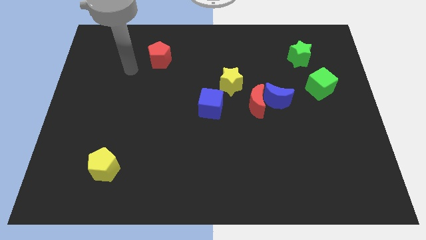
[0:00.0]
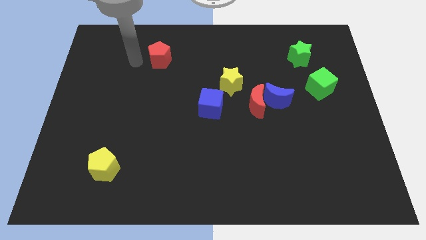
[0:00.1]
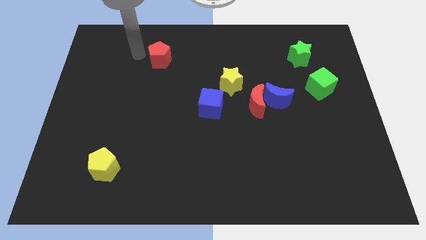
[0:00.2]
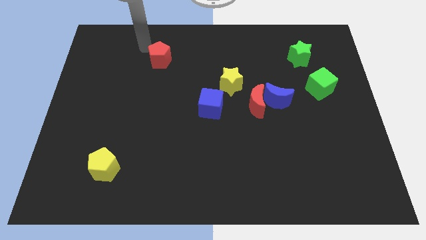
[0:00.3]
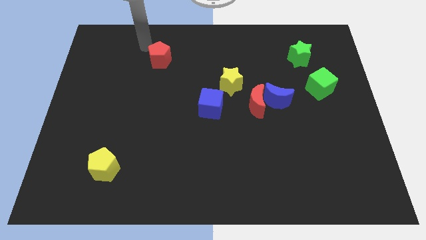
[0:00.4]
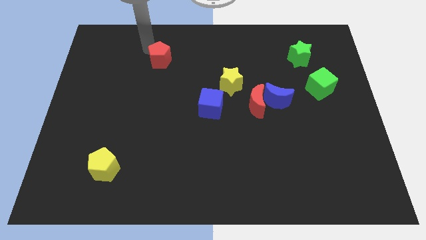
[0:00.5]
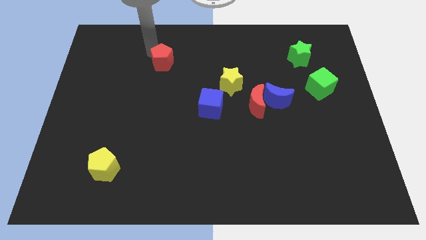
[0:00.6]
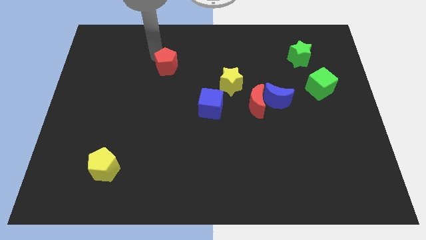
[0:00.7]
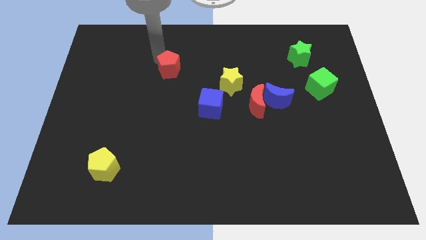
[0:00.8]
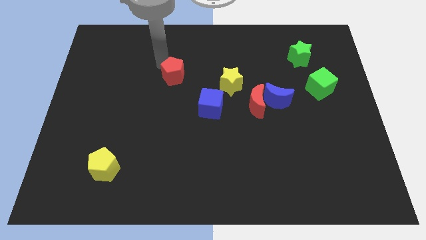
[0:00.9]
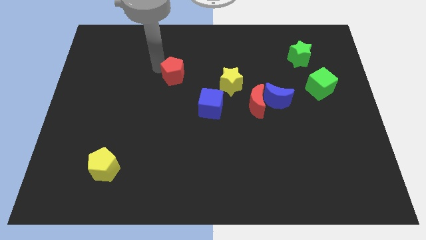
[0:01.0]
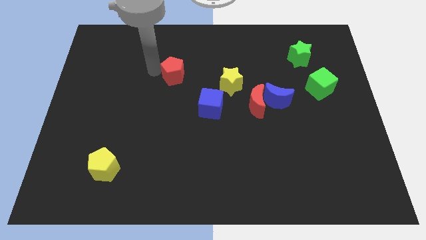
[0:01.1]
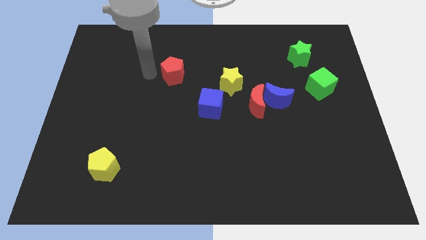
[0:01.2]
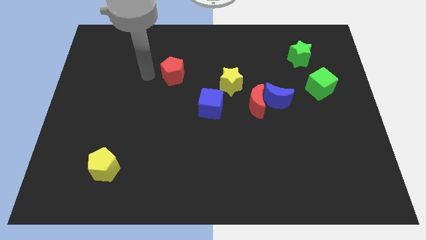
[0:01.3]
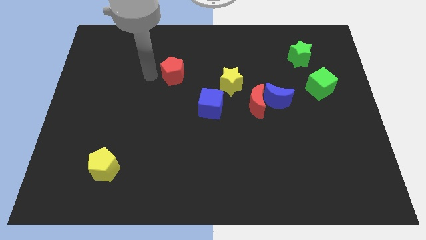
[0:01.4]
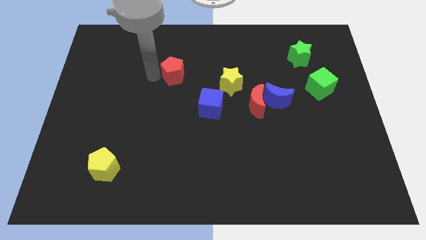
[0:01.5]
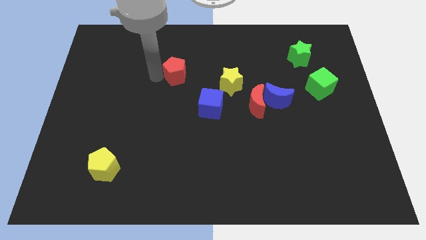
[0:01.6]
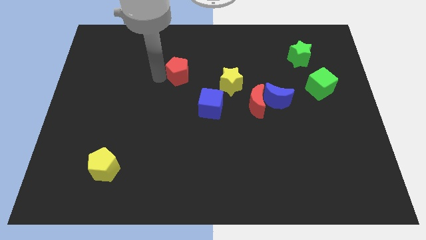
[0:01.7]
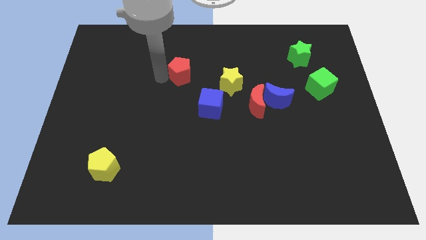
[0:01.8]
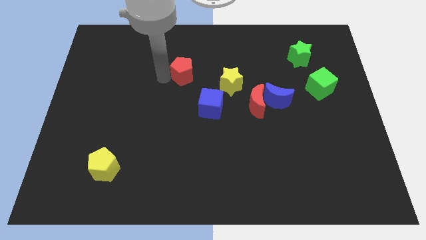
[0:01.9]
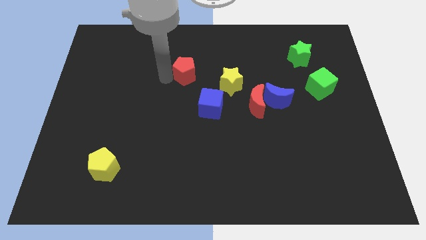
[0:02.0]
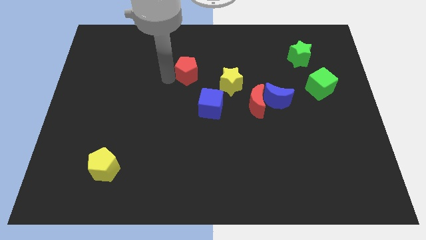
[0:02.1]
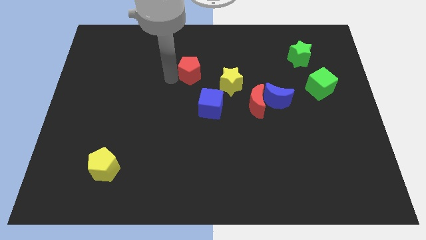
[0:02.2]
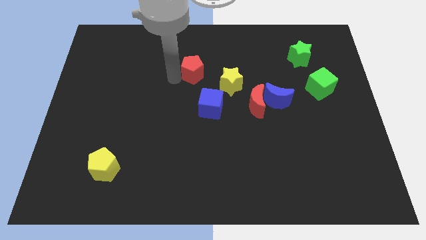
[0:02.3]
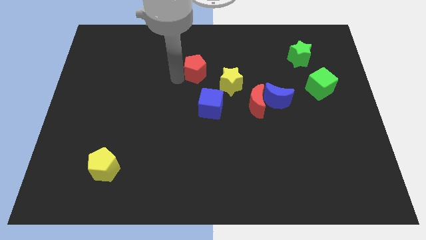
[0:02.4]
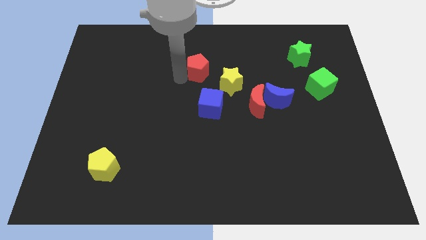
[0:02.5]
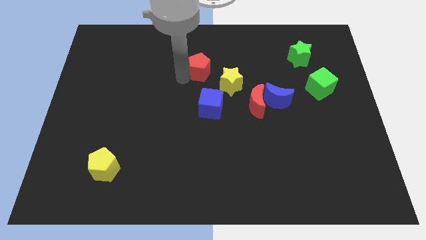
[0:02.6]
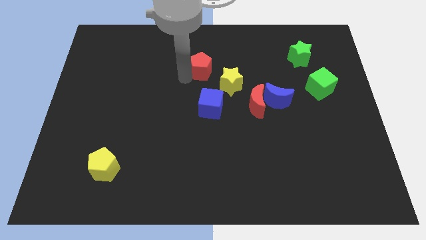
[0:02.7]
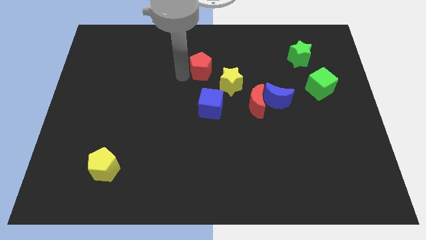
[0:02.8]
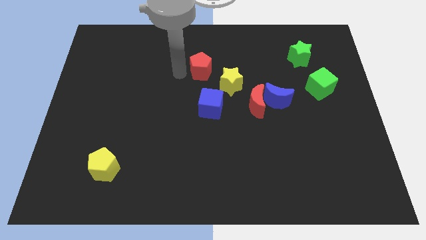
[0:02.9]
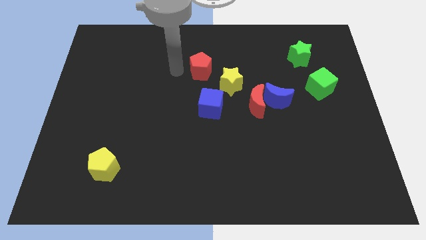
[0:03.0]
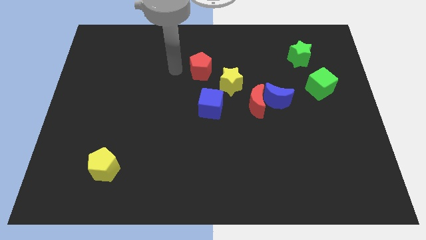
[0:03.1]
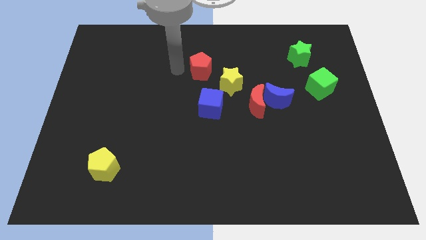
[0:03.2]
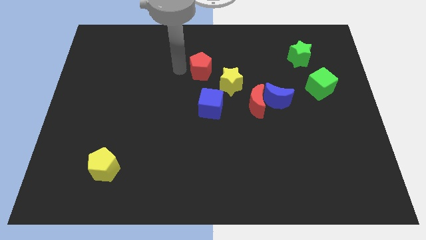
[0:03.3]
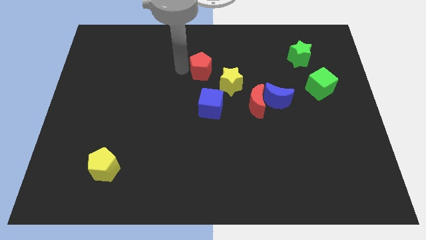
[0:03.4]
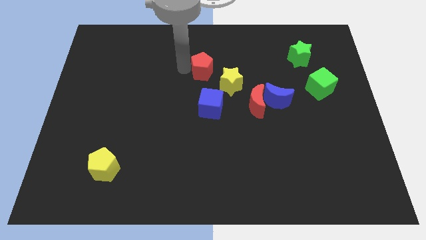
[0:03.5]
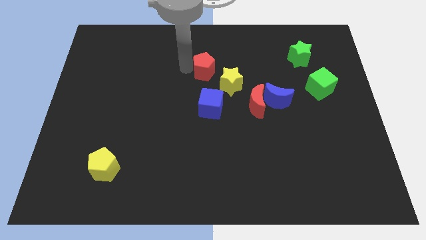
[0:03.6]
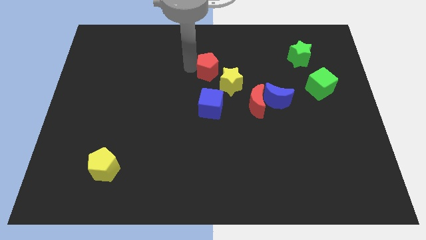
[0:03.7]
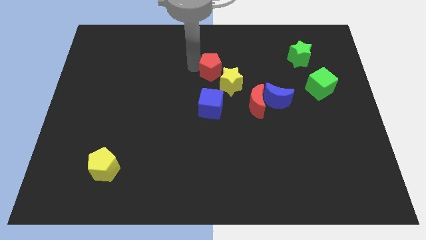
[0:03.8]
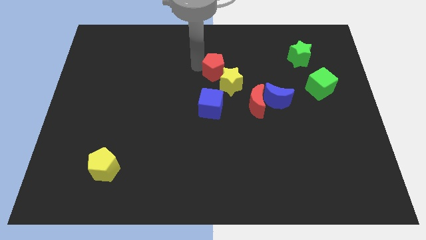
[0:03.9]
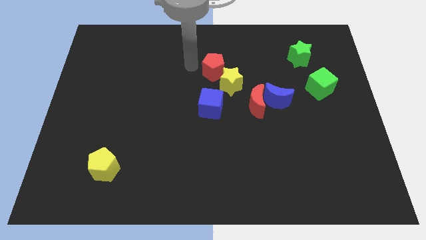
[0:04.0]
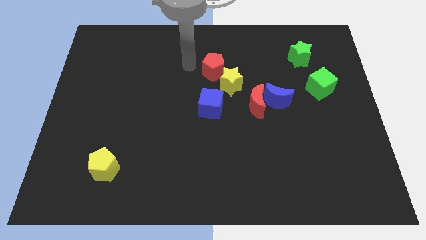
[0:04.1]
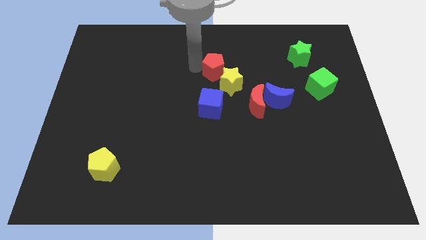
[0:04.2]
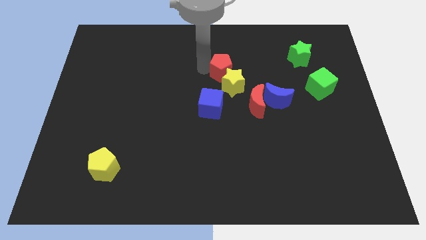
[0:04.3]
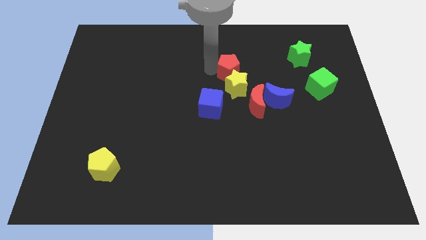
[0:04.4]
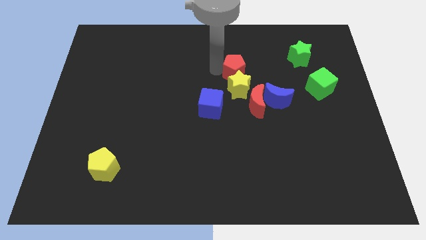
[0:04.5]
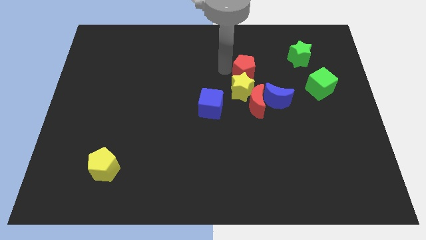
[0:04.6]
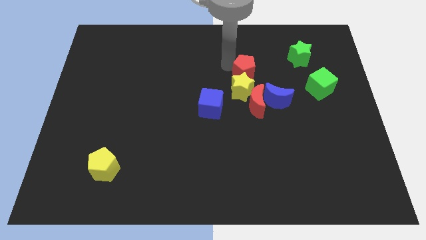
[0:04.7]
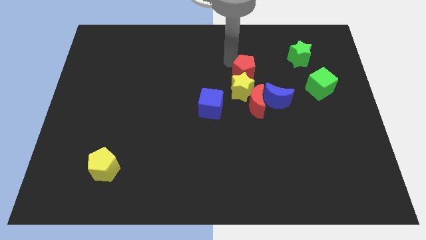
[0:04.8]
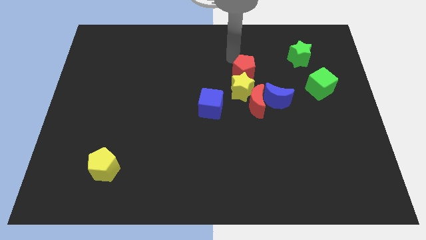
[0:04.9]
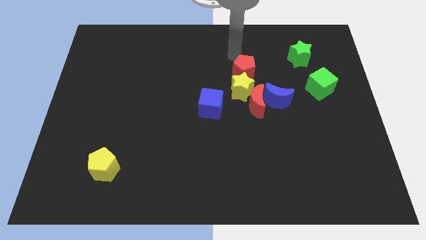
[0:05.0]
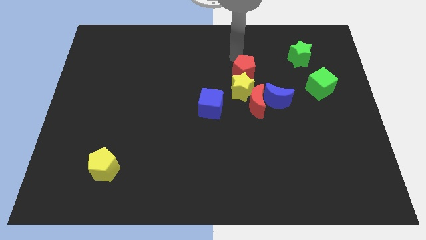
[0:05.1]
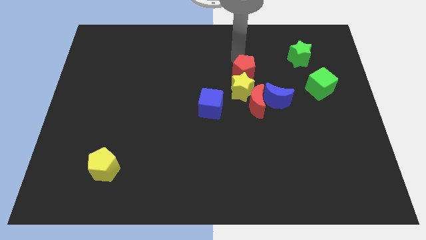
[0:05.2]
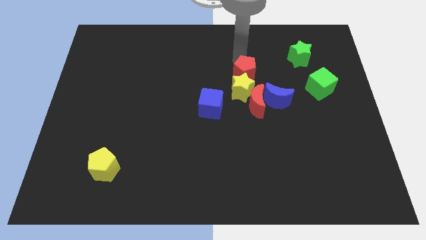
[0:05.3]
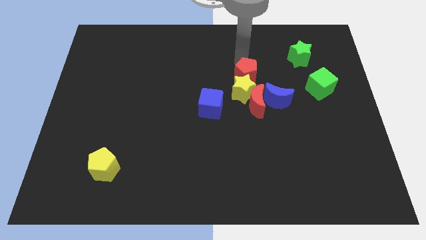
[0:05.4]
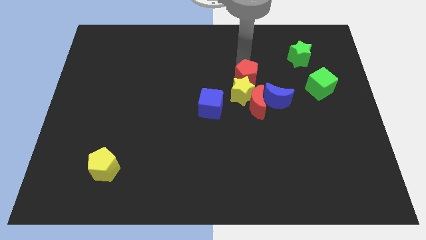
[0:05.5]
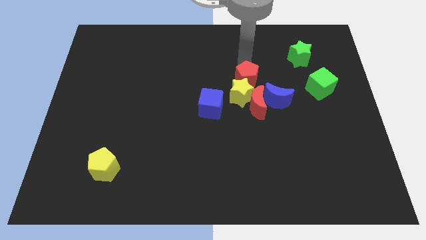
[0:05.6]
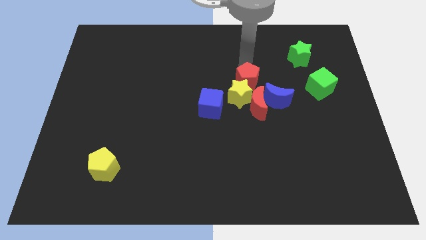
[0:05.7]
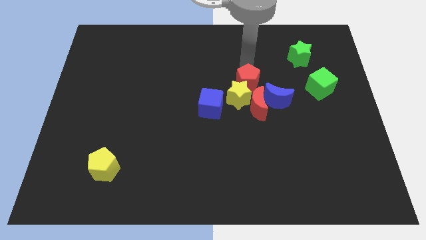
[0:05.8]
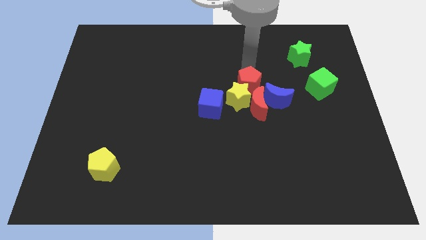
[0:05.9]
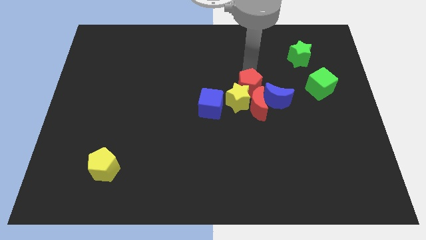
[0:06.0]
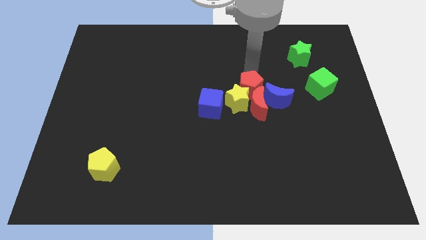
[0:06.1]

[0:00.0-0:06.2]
move the red pentagon to the red moon

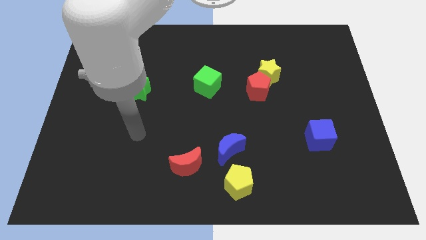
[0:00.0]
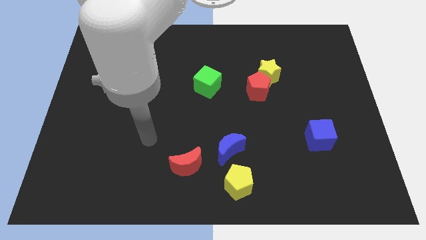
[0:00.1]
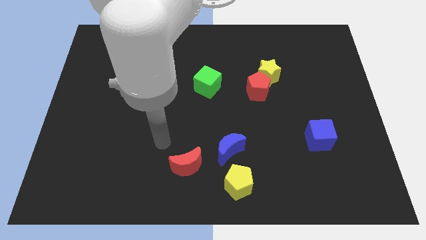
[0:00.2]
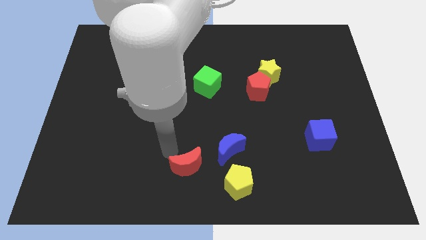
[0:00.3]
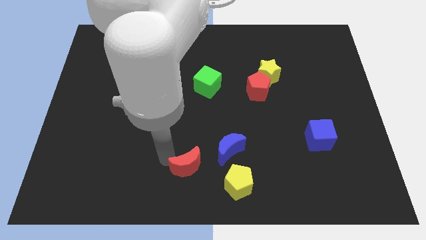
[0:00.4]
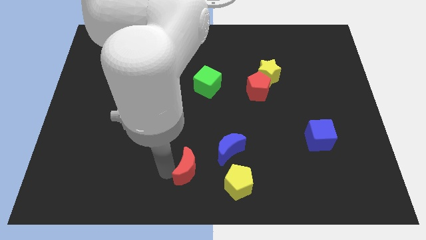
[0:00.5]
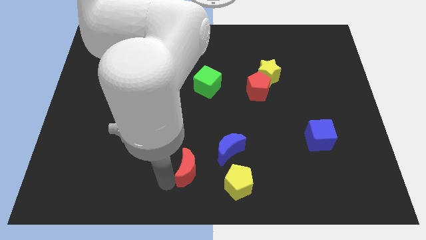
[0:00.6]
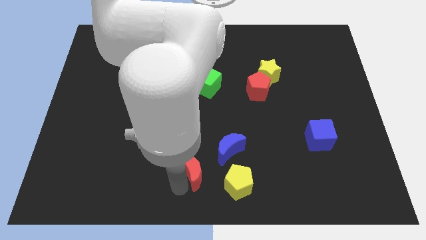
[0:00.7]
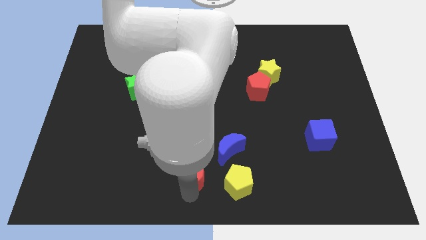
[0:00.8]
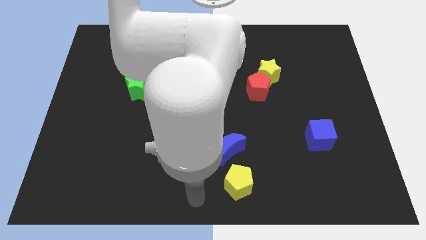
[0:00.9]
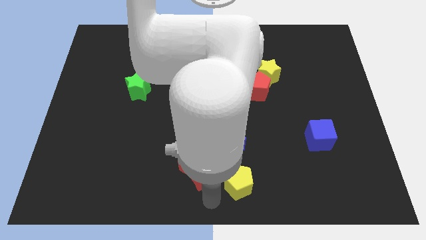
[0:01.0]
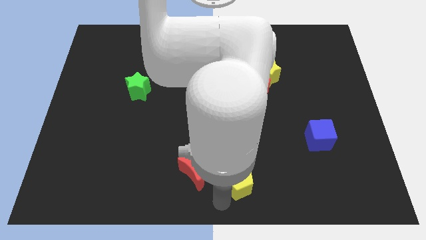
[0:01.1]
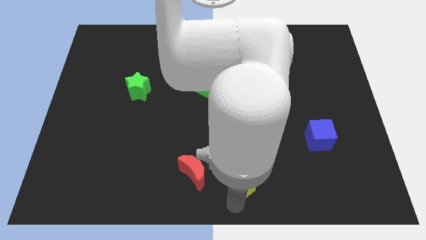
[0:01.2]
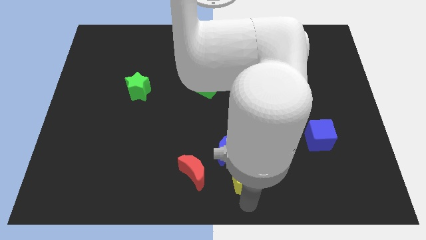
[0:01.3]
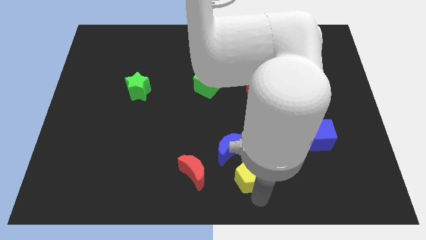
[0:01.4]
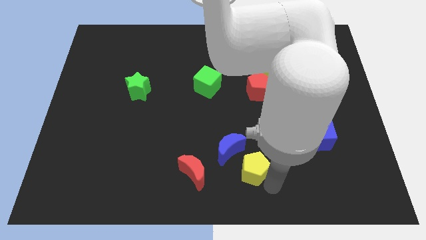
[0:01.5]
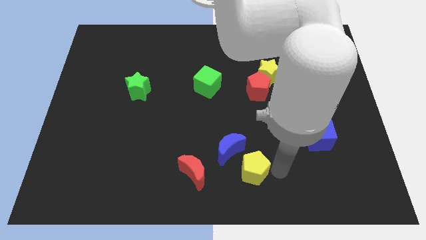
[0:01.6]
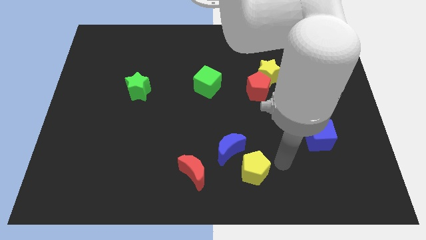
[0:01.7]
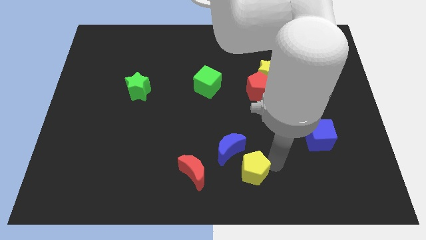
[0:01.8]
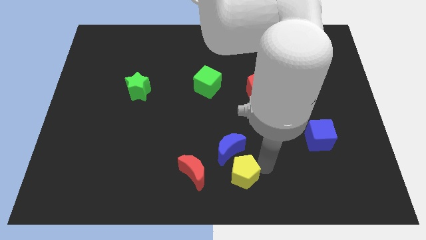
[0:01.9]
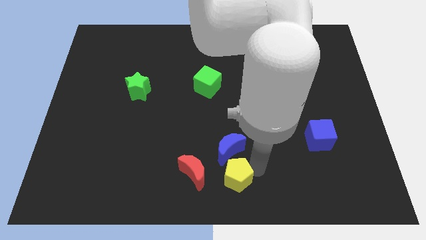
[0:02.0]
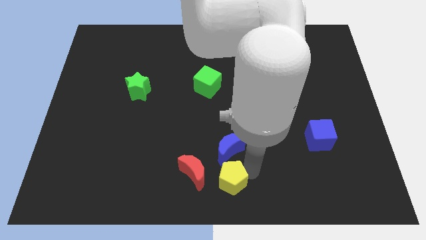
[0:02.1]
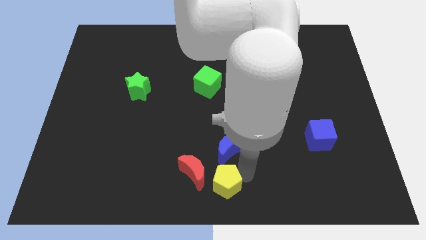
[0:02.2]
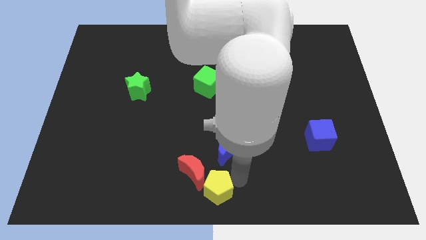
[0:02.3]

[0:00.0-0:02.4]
slide the yellow pentagon next to the red moon
